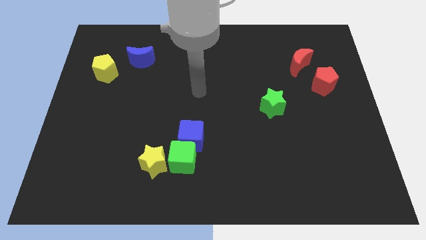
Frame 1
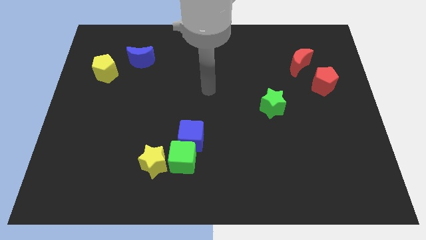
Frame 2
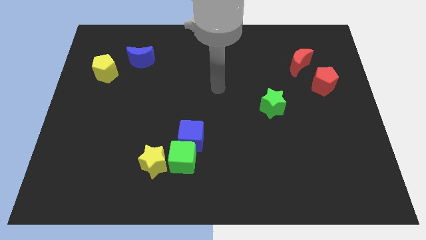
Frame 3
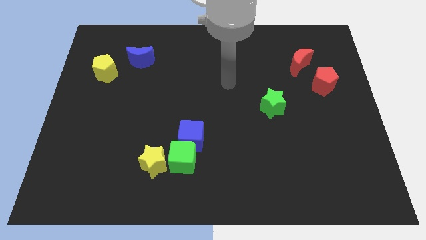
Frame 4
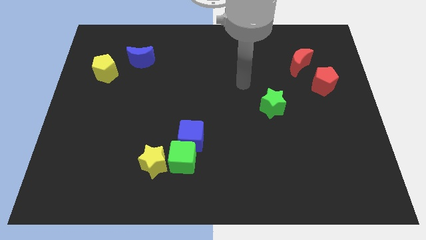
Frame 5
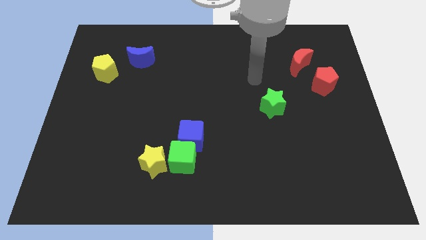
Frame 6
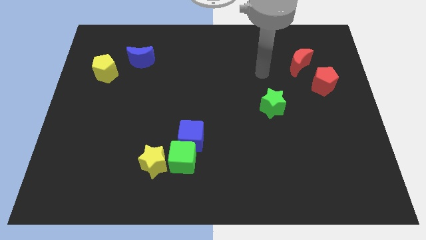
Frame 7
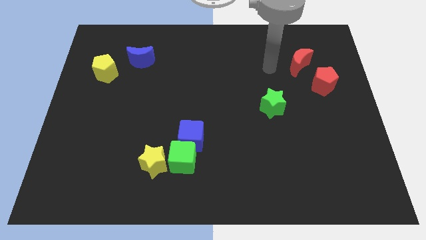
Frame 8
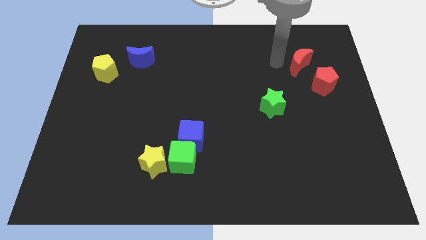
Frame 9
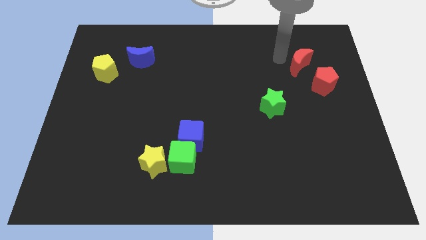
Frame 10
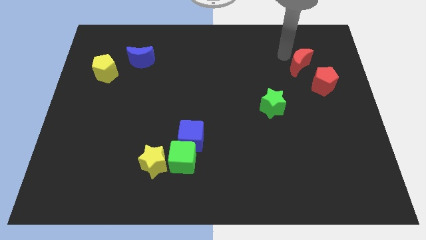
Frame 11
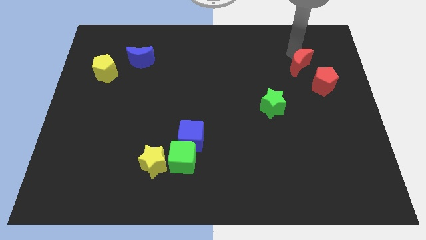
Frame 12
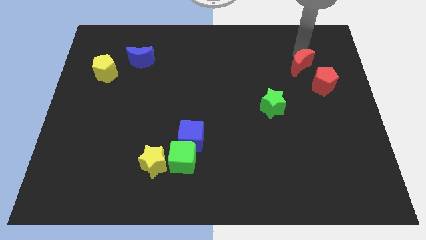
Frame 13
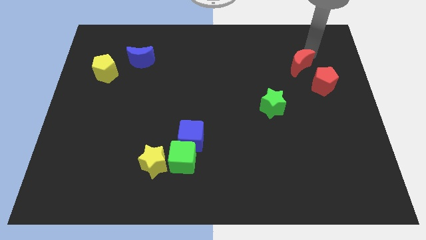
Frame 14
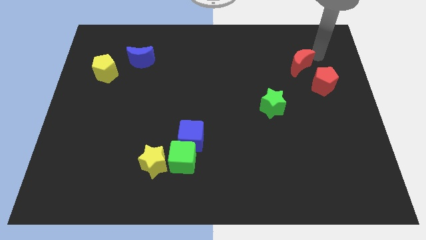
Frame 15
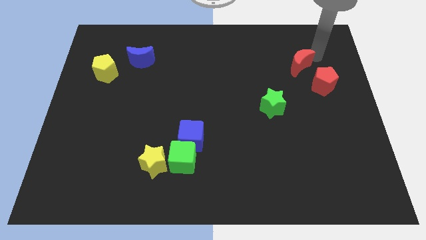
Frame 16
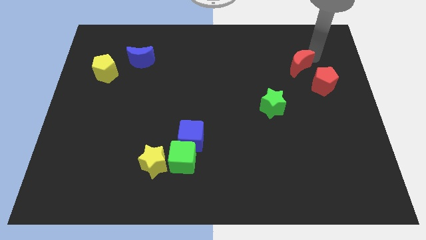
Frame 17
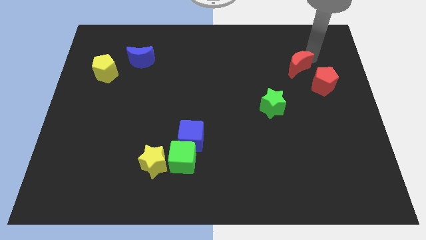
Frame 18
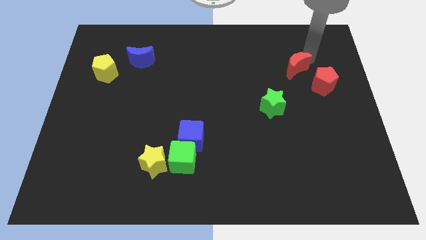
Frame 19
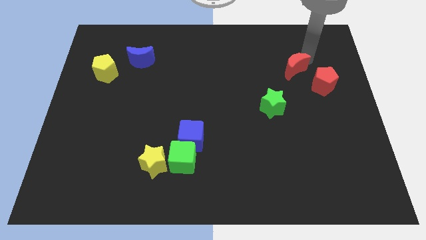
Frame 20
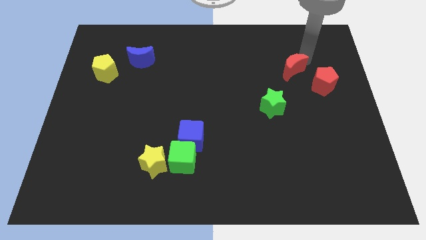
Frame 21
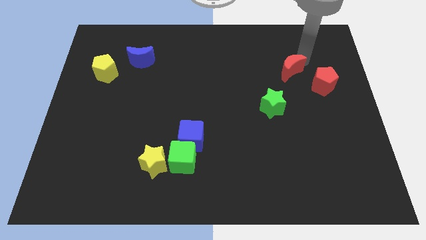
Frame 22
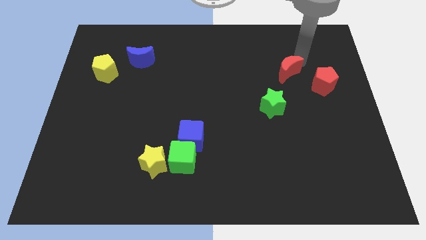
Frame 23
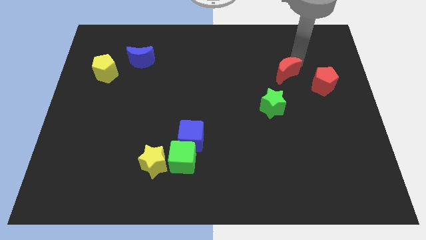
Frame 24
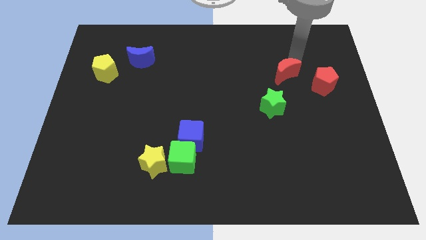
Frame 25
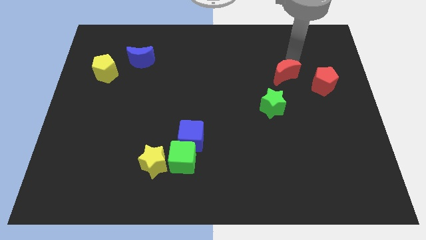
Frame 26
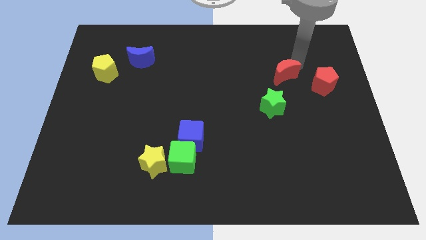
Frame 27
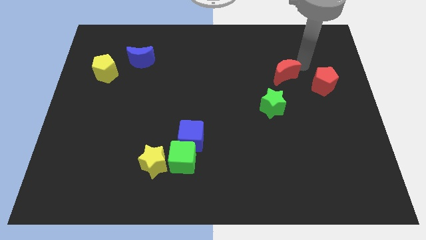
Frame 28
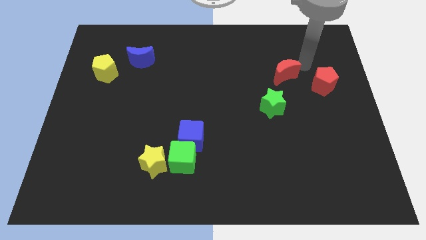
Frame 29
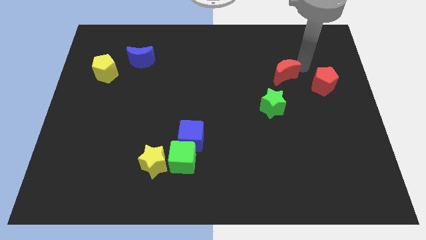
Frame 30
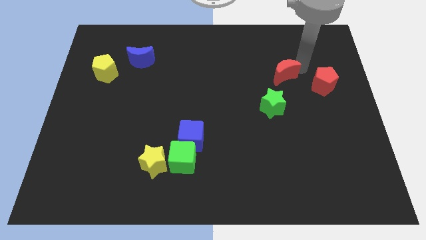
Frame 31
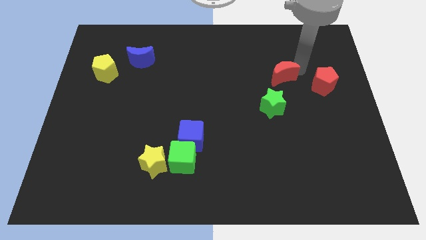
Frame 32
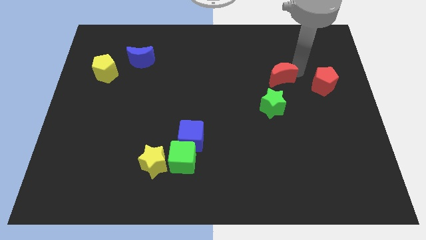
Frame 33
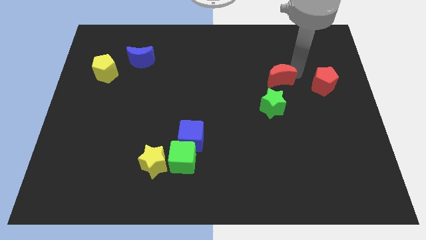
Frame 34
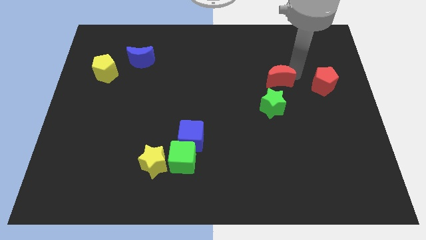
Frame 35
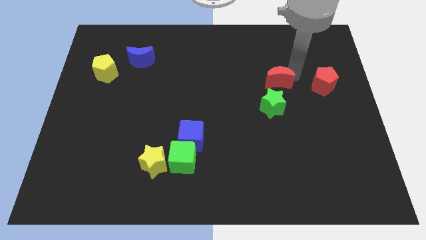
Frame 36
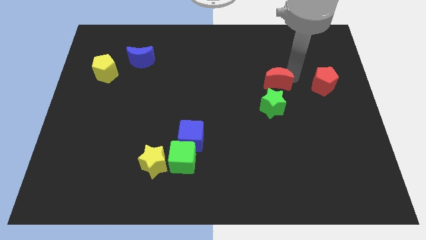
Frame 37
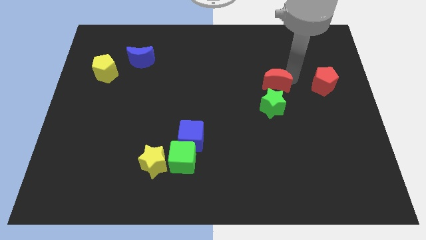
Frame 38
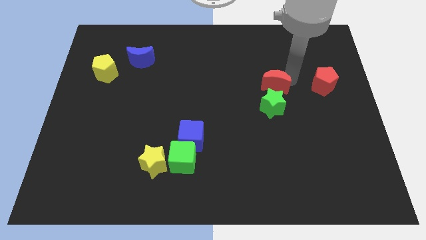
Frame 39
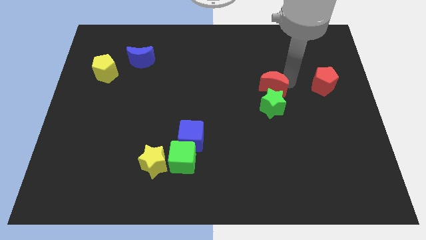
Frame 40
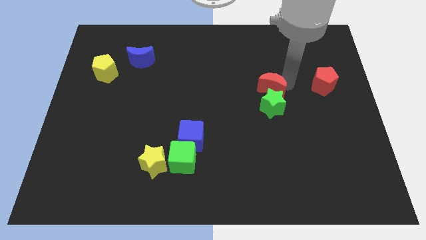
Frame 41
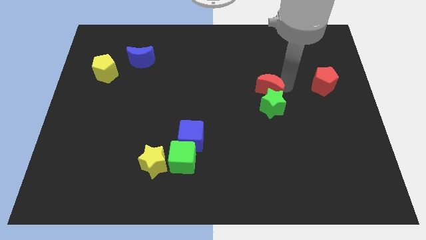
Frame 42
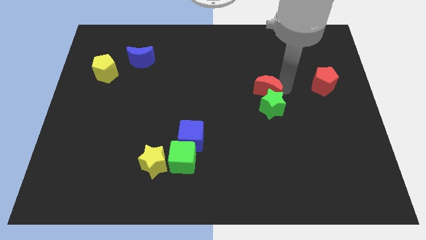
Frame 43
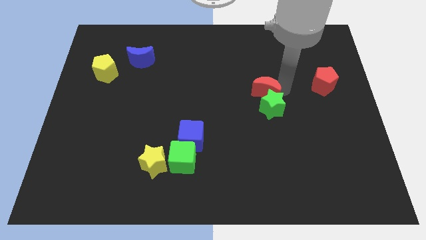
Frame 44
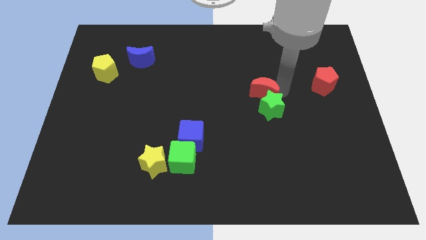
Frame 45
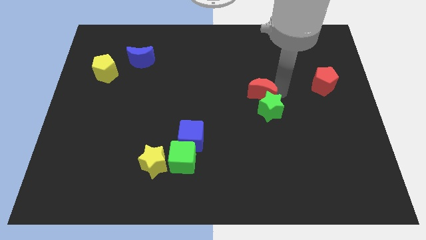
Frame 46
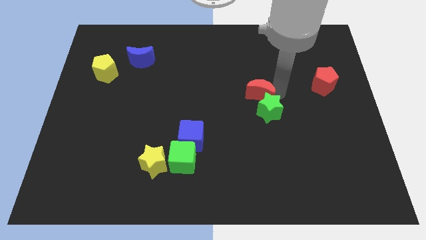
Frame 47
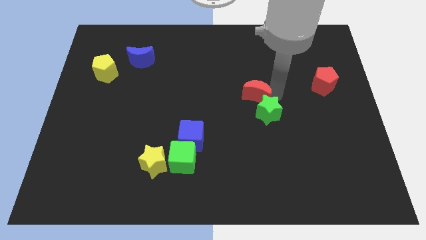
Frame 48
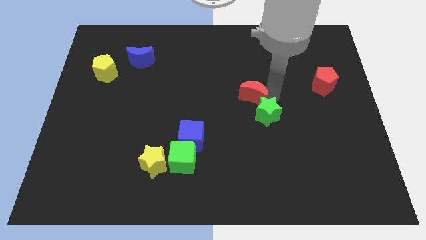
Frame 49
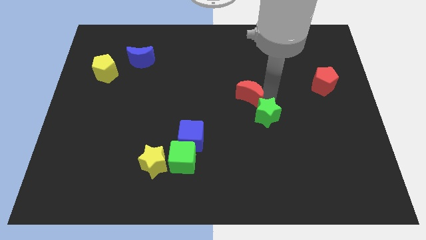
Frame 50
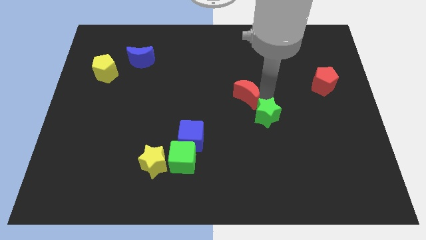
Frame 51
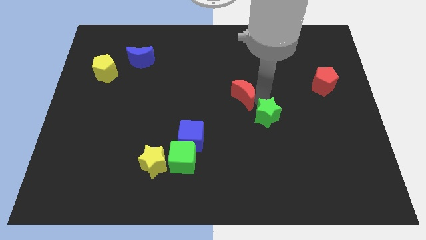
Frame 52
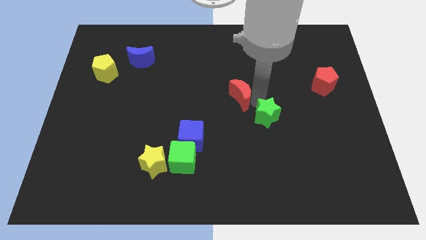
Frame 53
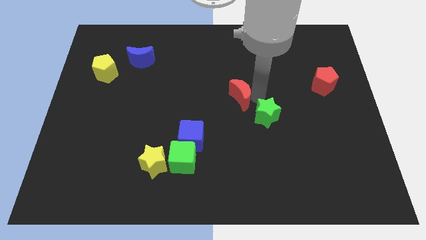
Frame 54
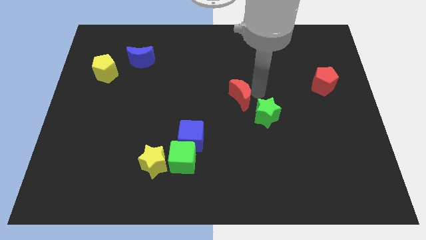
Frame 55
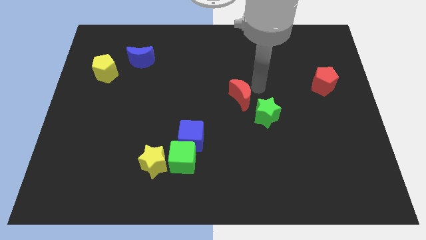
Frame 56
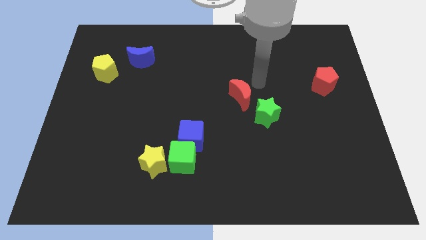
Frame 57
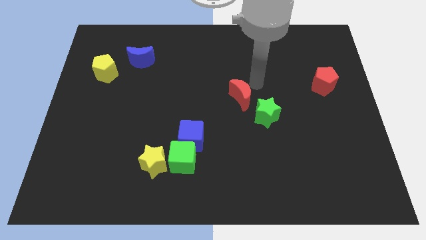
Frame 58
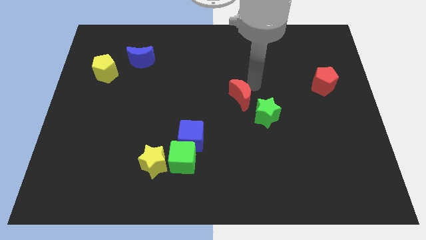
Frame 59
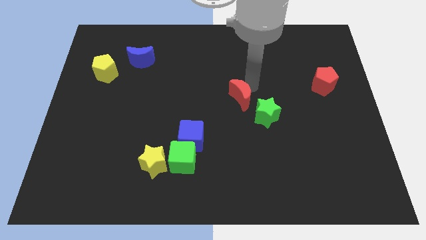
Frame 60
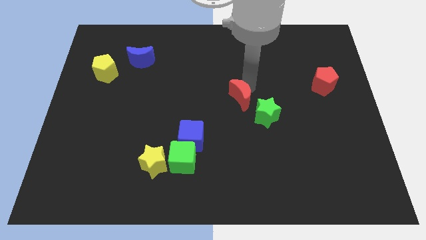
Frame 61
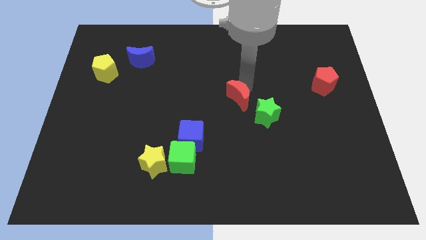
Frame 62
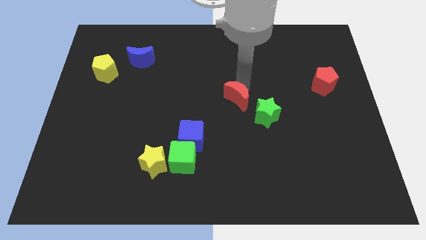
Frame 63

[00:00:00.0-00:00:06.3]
move the red moon just left of the green star

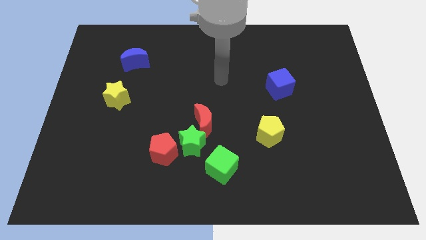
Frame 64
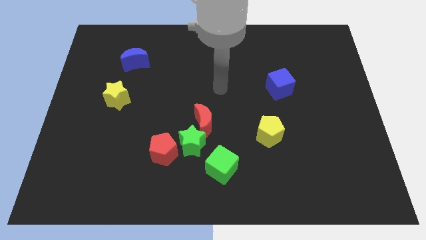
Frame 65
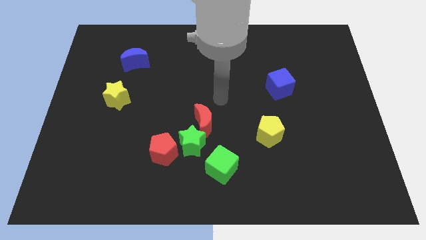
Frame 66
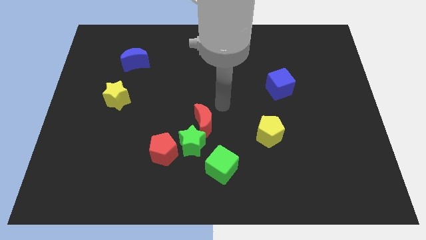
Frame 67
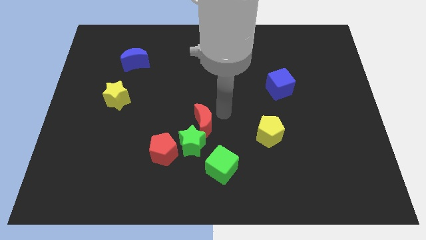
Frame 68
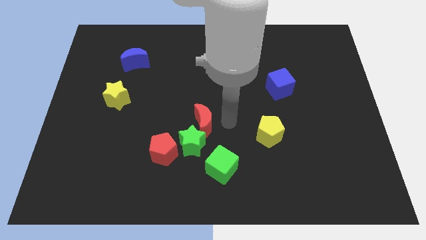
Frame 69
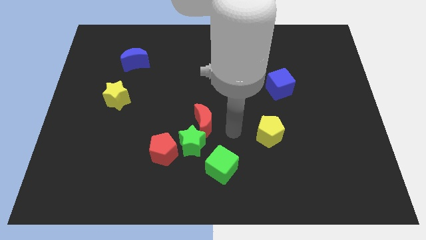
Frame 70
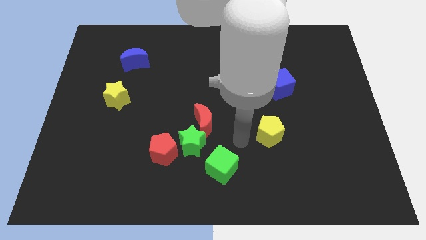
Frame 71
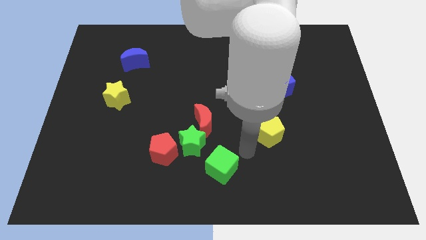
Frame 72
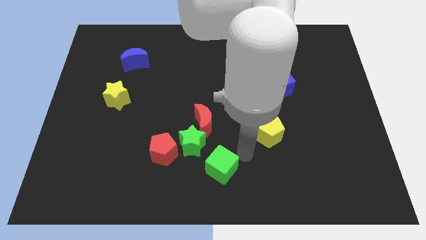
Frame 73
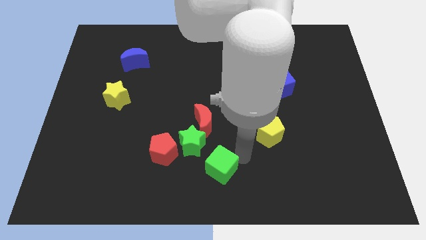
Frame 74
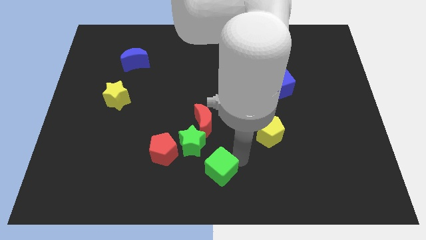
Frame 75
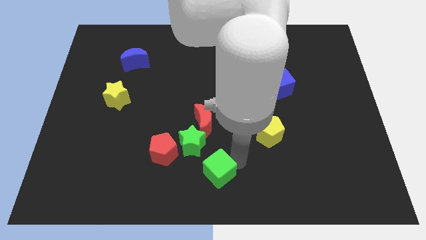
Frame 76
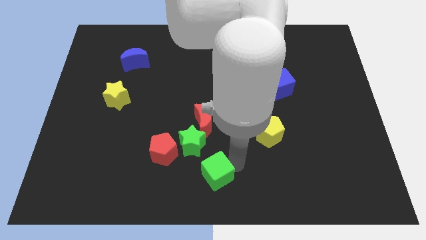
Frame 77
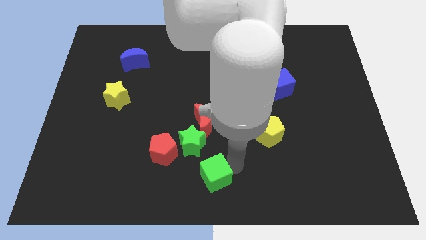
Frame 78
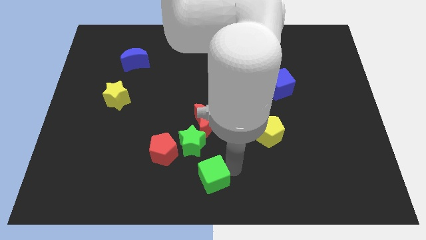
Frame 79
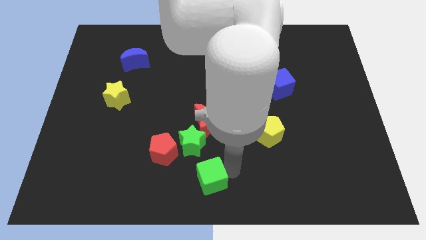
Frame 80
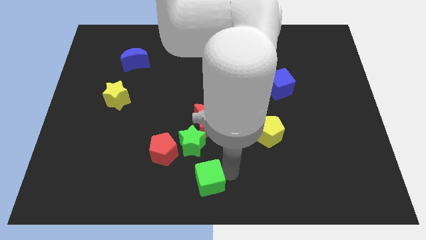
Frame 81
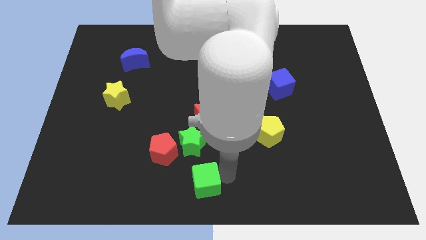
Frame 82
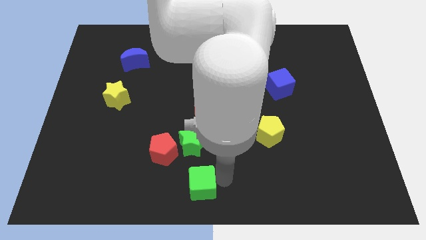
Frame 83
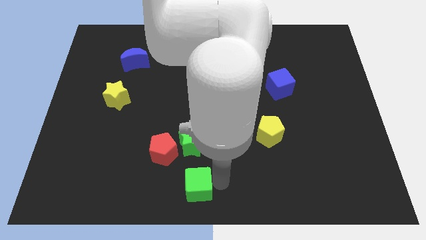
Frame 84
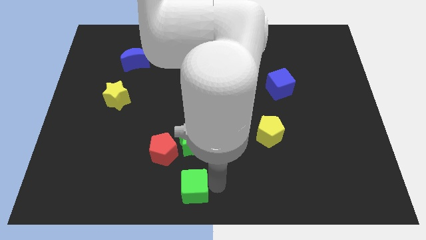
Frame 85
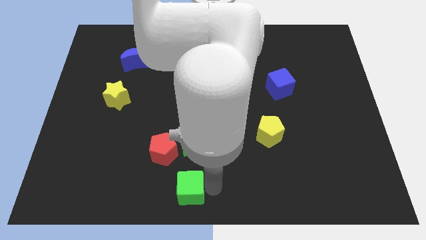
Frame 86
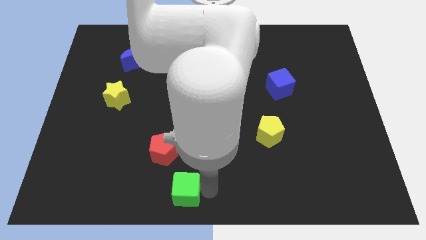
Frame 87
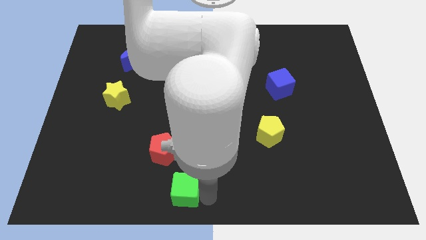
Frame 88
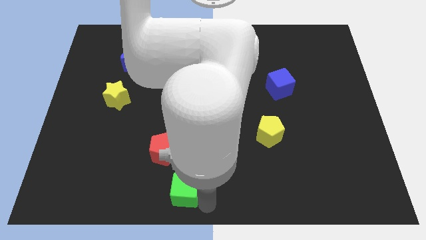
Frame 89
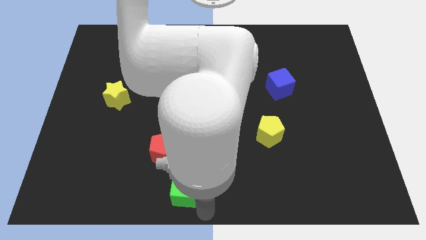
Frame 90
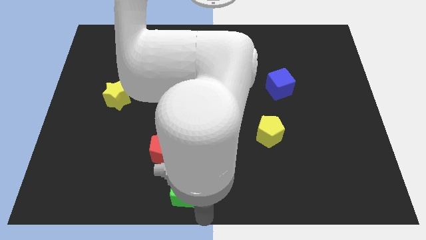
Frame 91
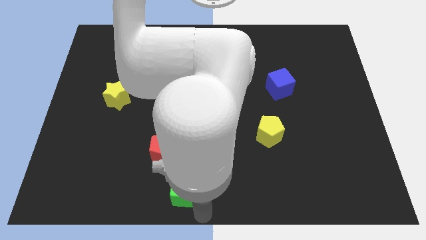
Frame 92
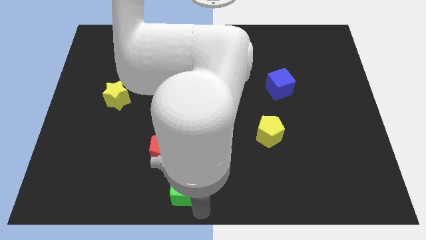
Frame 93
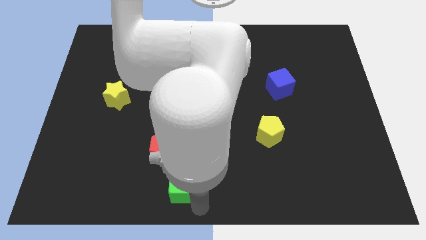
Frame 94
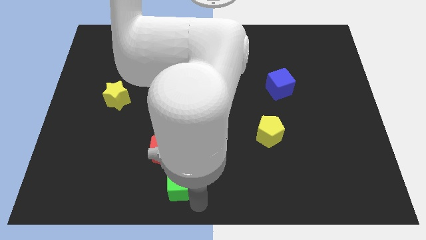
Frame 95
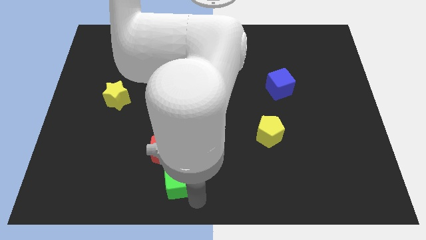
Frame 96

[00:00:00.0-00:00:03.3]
put the green cube diagonally down and to the left of the green star
